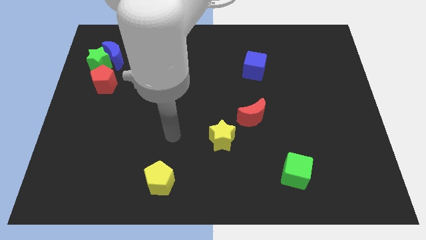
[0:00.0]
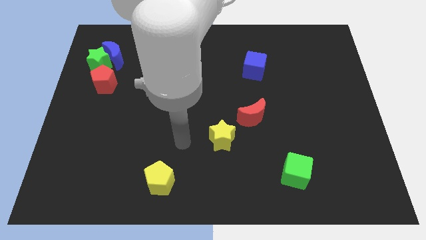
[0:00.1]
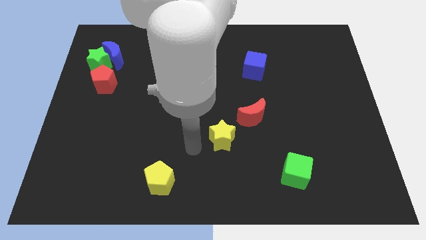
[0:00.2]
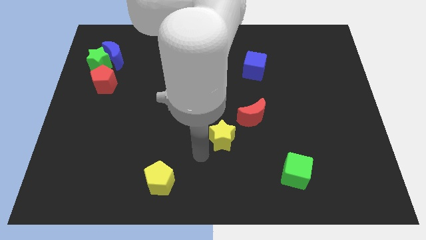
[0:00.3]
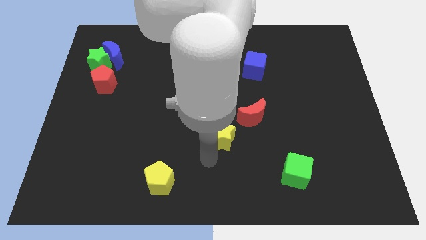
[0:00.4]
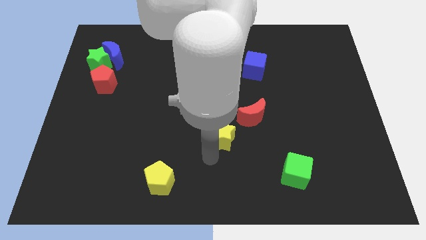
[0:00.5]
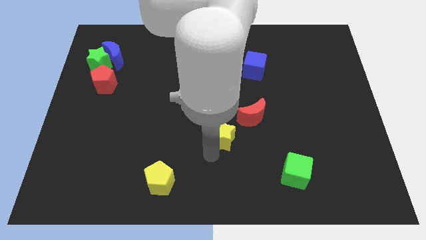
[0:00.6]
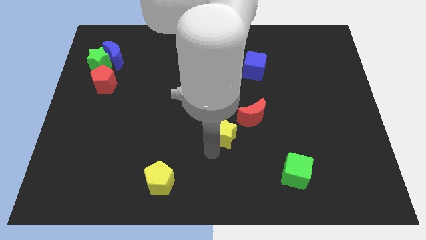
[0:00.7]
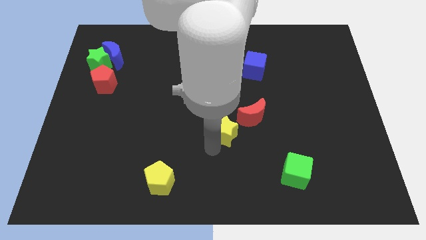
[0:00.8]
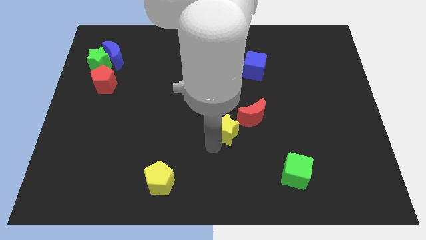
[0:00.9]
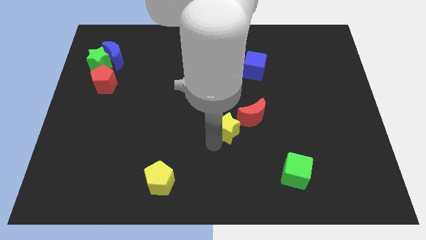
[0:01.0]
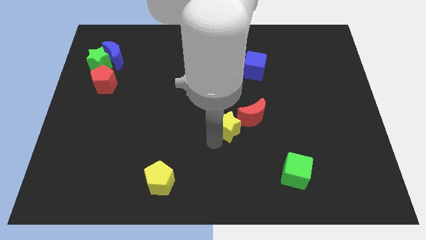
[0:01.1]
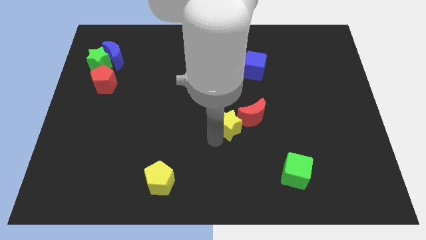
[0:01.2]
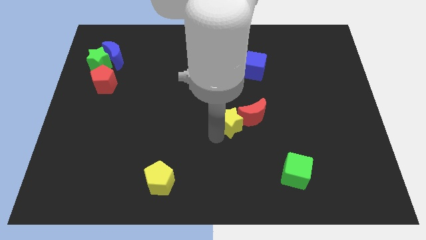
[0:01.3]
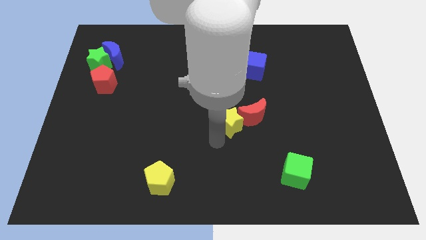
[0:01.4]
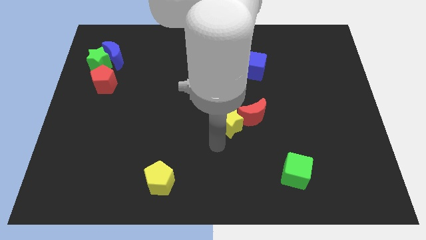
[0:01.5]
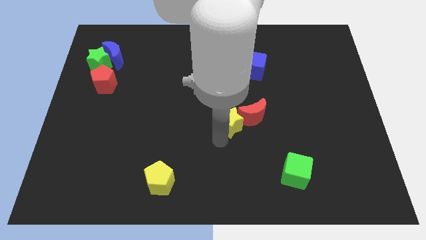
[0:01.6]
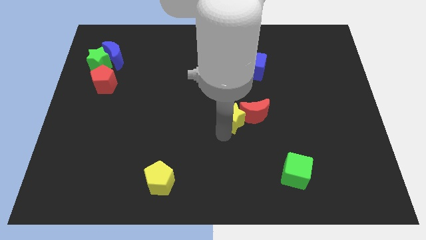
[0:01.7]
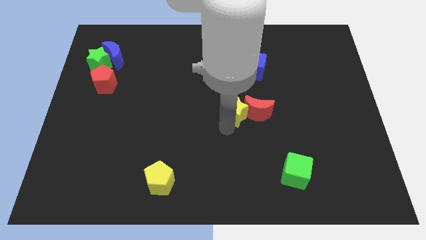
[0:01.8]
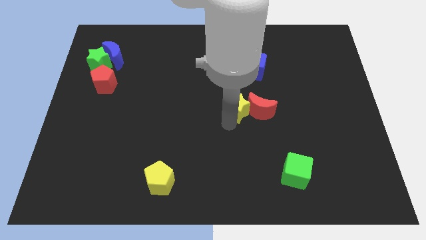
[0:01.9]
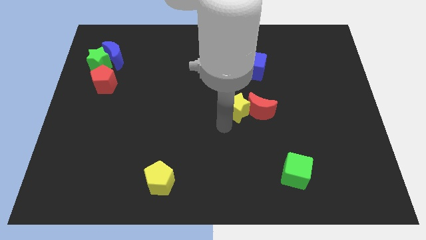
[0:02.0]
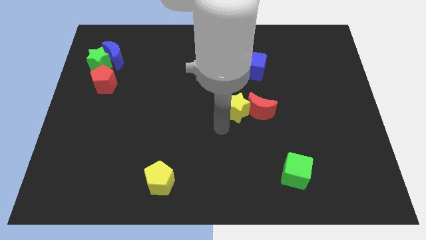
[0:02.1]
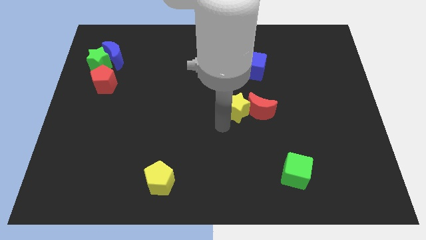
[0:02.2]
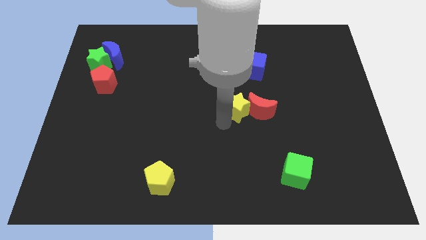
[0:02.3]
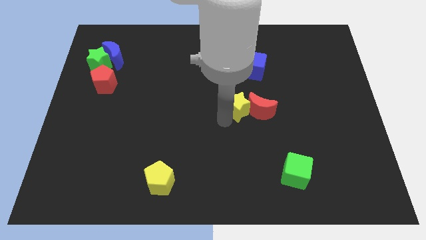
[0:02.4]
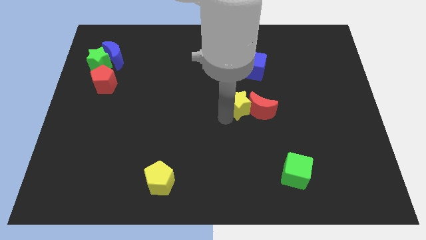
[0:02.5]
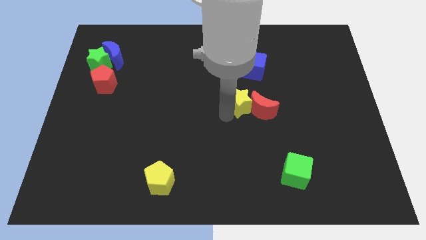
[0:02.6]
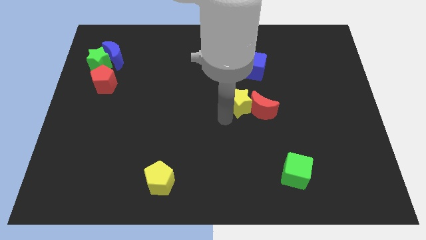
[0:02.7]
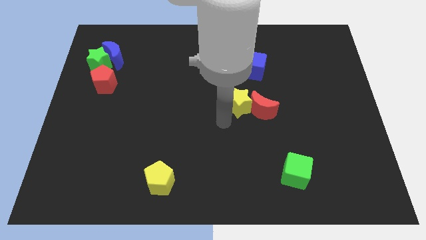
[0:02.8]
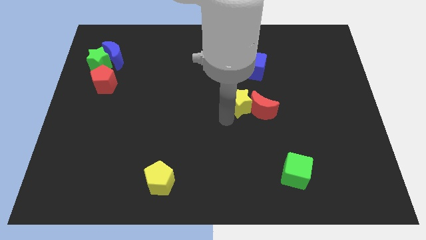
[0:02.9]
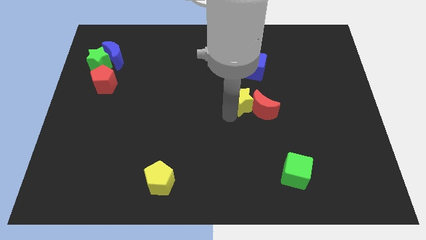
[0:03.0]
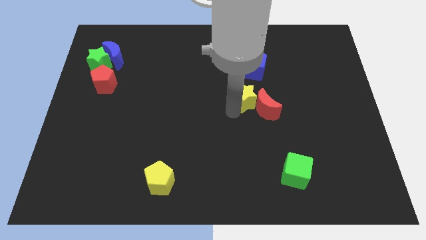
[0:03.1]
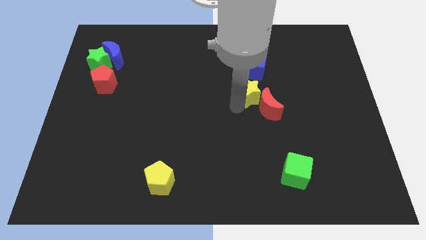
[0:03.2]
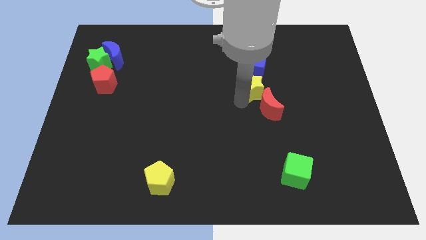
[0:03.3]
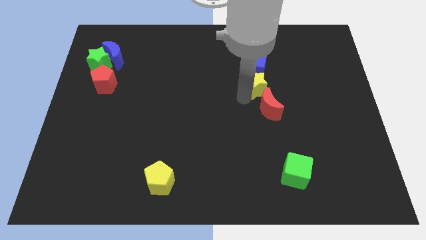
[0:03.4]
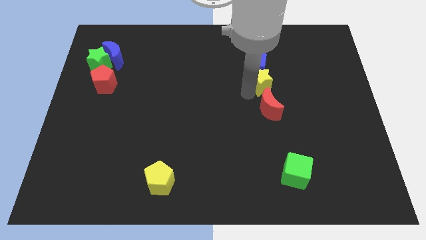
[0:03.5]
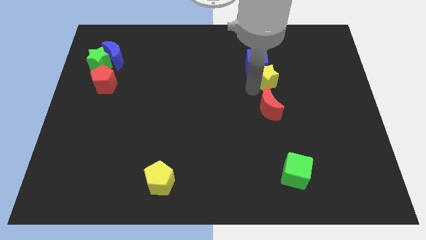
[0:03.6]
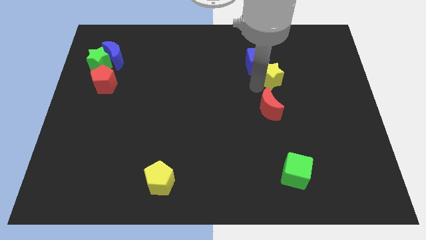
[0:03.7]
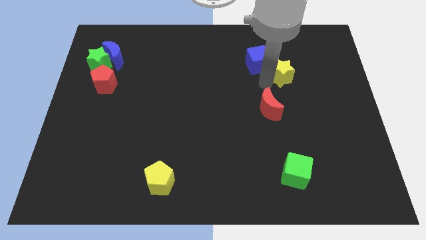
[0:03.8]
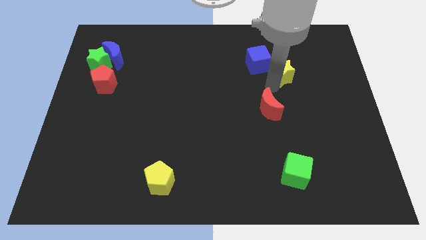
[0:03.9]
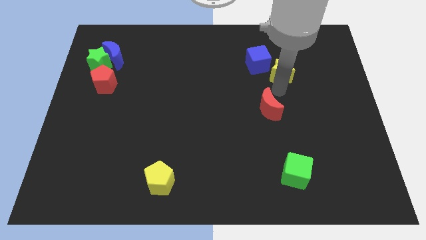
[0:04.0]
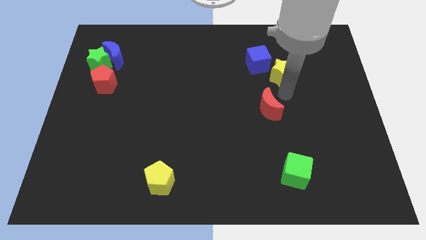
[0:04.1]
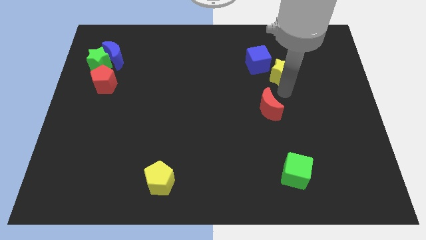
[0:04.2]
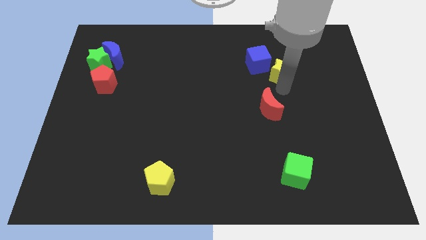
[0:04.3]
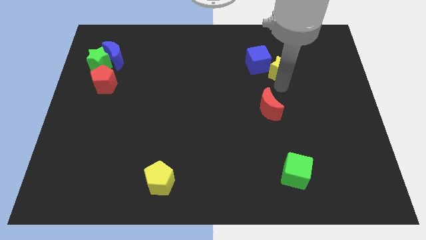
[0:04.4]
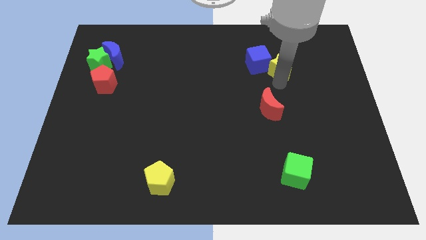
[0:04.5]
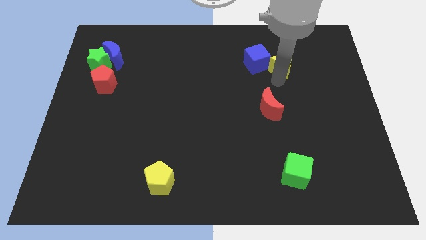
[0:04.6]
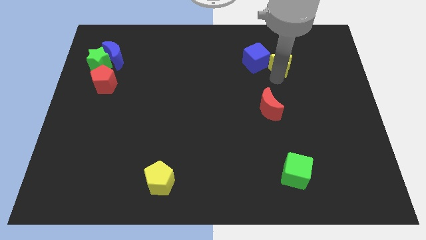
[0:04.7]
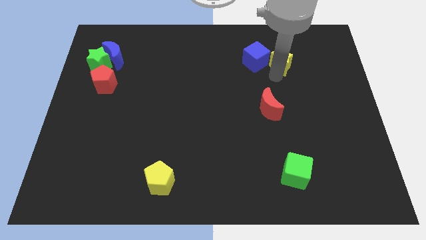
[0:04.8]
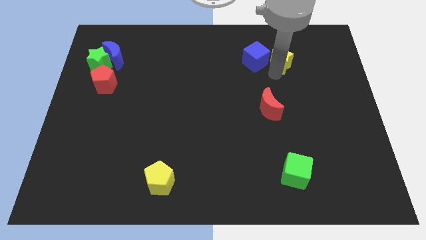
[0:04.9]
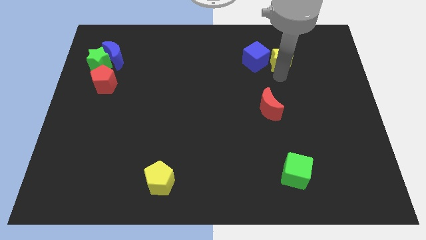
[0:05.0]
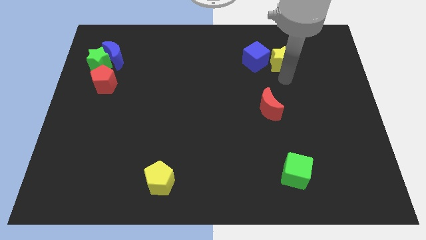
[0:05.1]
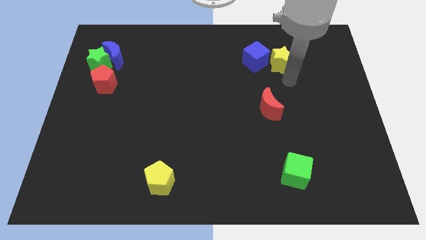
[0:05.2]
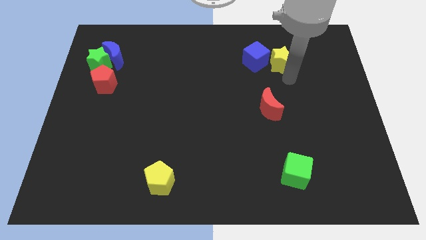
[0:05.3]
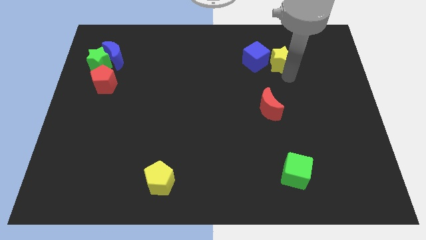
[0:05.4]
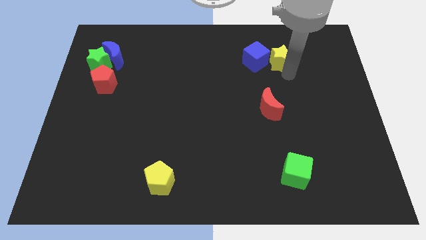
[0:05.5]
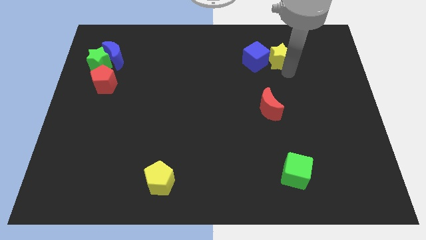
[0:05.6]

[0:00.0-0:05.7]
move the yellow star to the top right of the blue cube

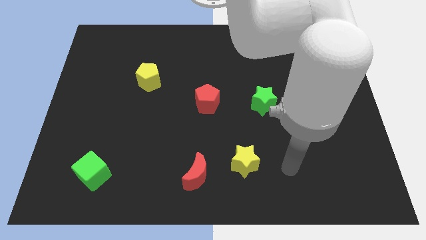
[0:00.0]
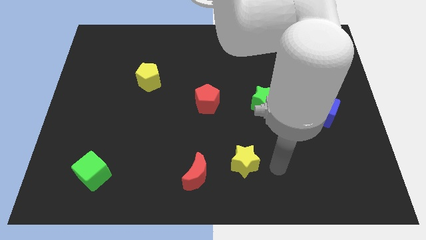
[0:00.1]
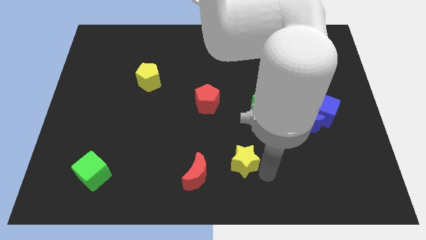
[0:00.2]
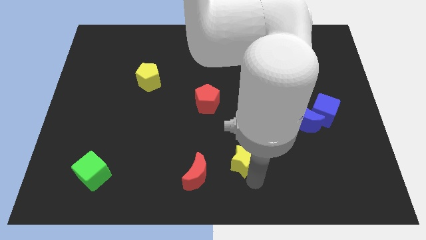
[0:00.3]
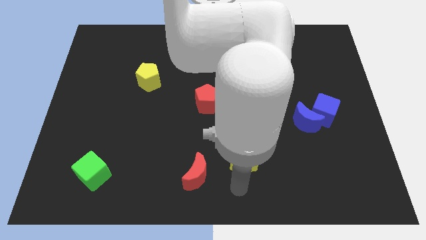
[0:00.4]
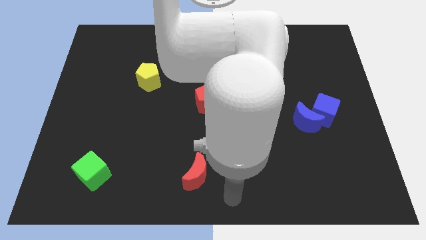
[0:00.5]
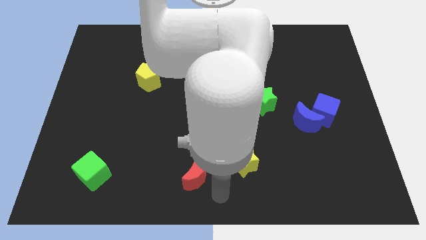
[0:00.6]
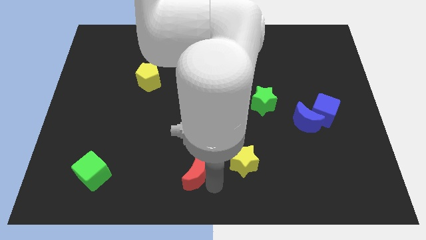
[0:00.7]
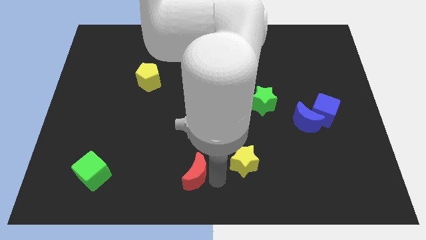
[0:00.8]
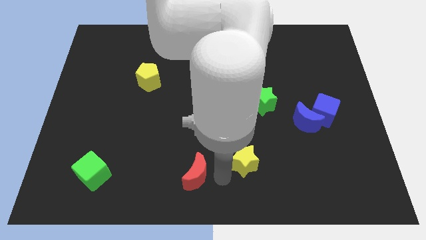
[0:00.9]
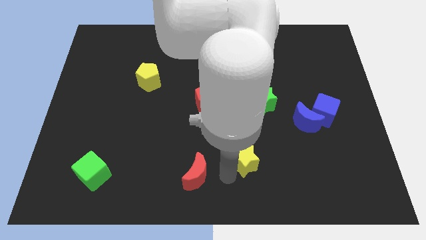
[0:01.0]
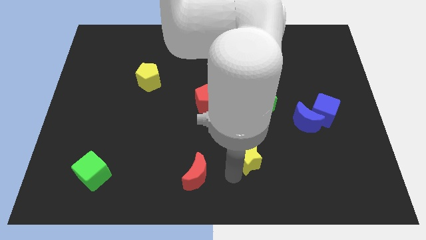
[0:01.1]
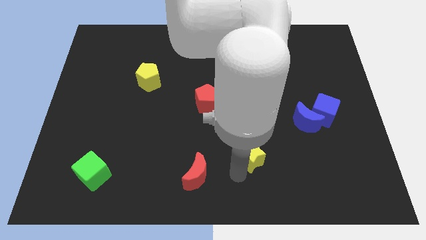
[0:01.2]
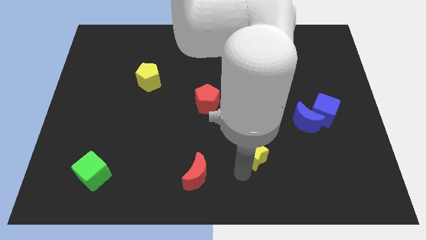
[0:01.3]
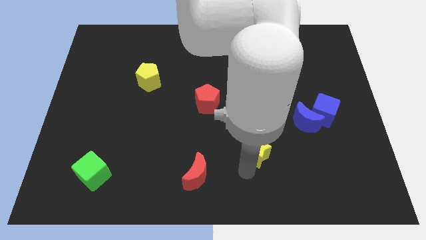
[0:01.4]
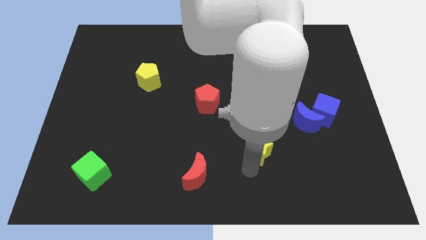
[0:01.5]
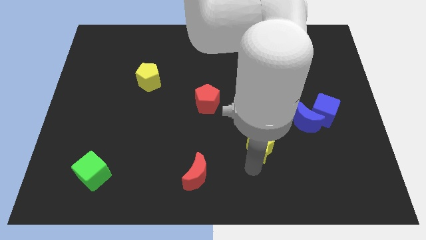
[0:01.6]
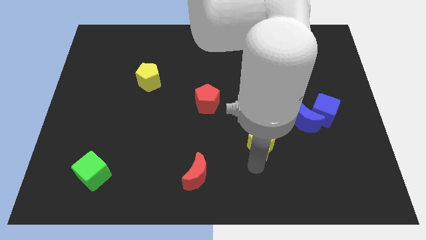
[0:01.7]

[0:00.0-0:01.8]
slide the yellow star diagonally down and to the left of the blue moon
